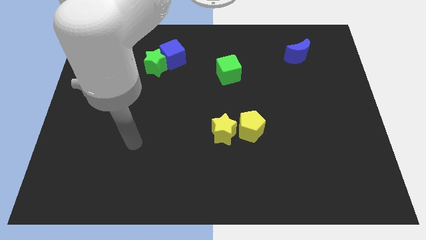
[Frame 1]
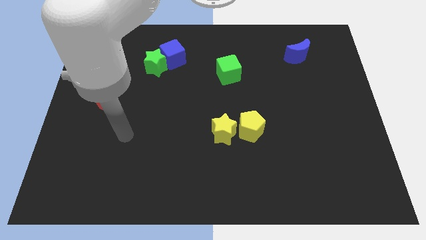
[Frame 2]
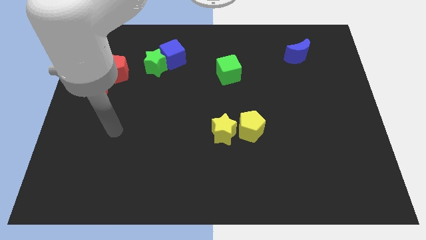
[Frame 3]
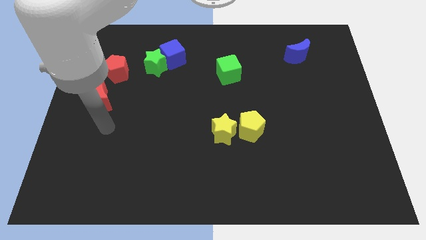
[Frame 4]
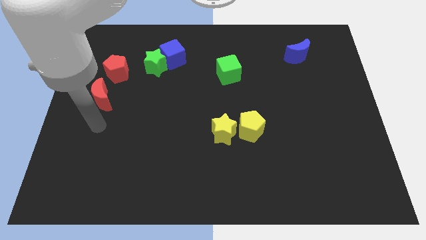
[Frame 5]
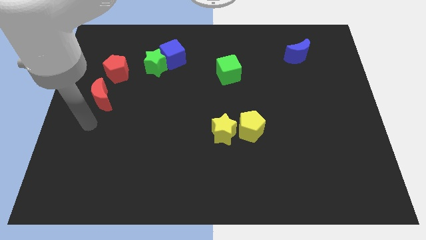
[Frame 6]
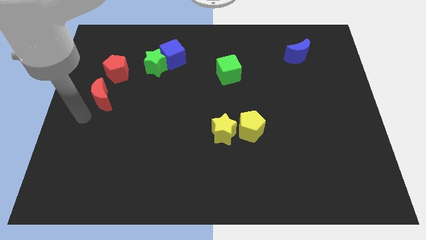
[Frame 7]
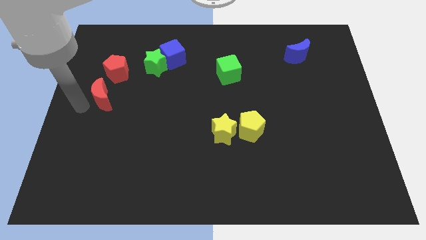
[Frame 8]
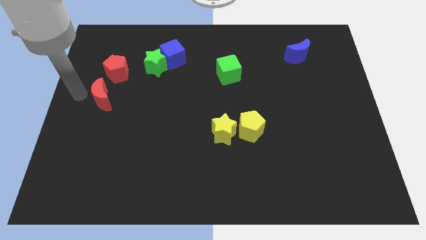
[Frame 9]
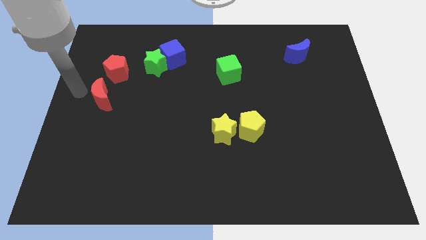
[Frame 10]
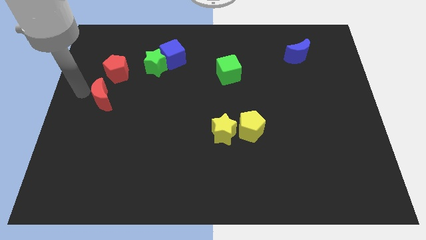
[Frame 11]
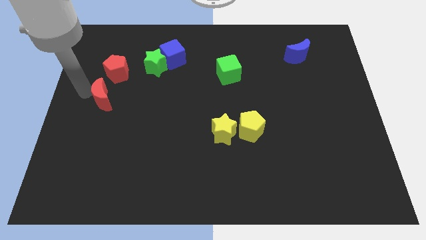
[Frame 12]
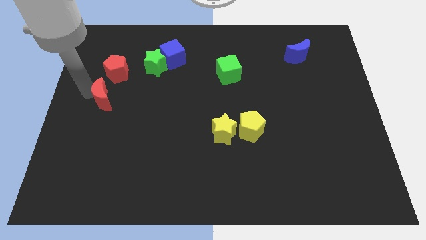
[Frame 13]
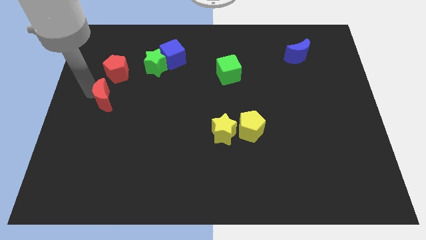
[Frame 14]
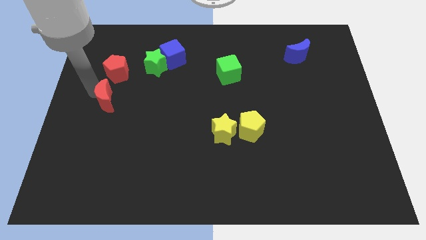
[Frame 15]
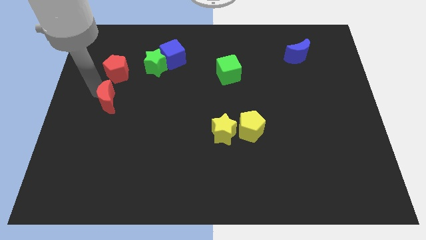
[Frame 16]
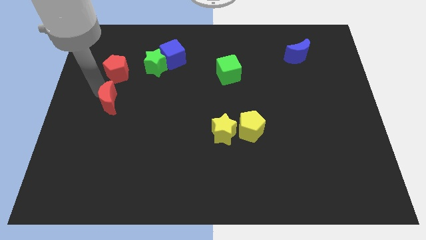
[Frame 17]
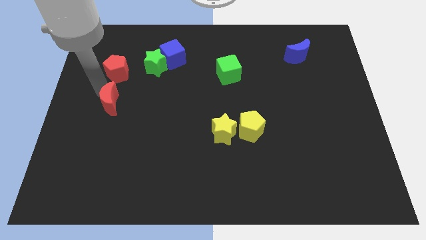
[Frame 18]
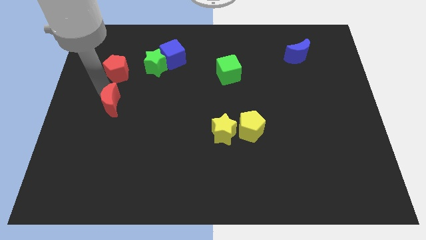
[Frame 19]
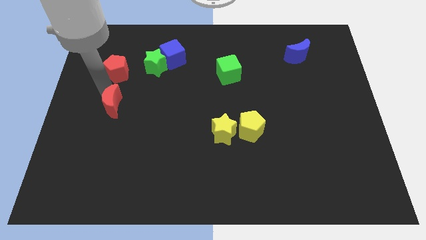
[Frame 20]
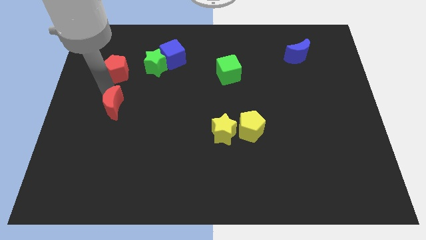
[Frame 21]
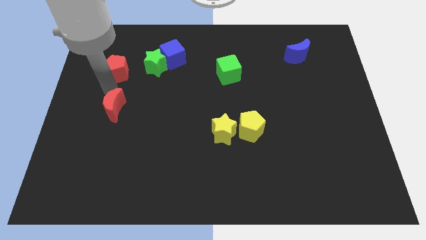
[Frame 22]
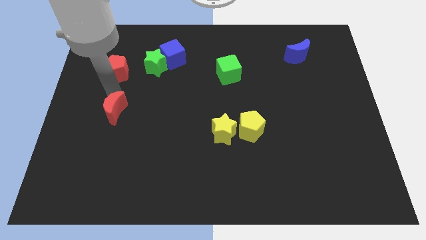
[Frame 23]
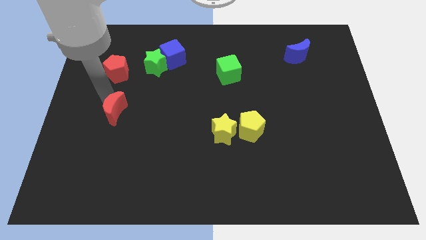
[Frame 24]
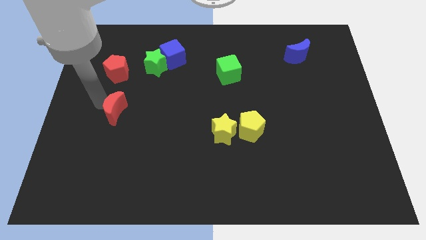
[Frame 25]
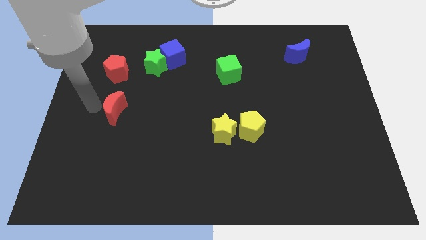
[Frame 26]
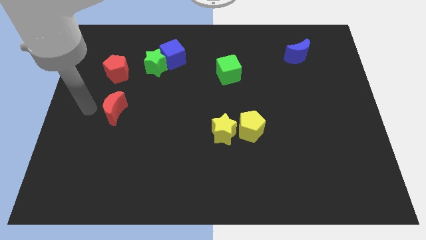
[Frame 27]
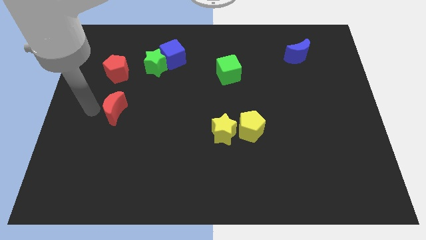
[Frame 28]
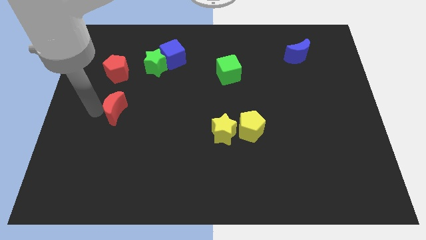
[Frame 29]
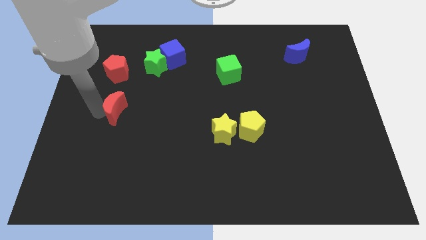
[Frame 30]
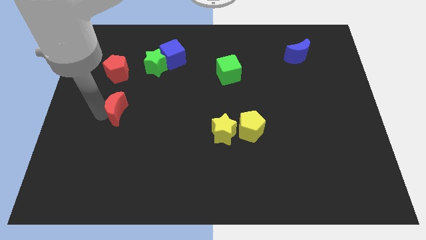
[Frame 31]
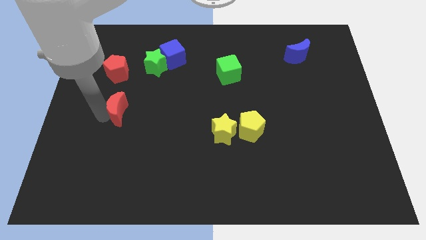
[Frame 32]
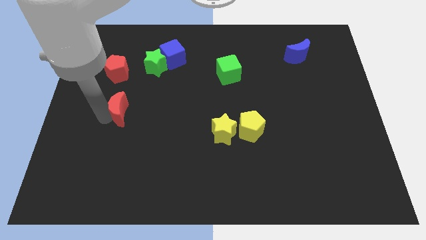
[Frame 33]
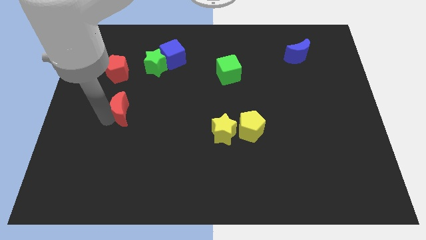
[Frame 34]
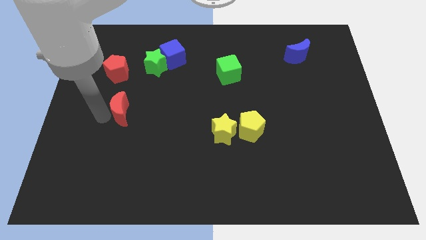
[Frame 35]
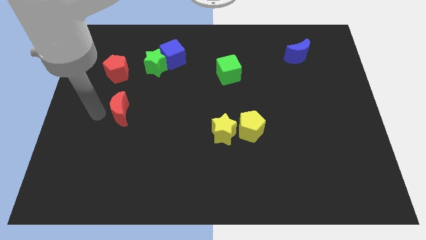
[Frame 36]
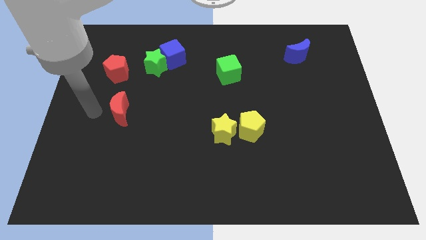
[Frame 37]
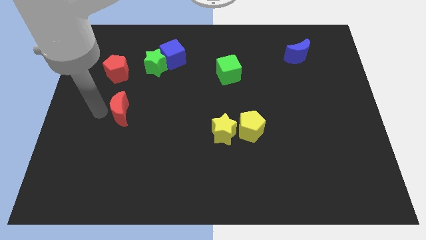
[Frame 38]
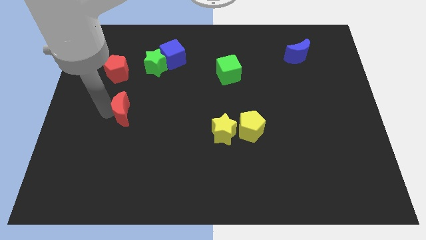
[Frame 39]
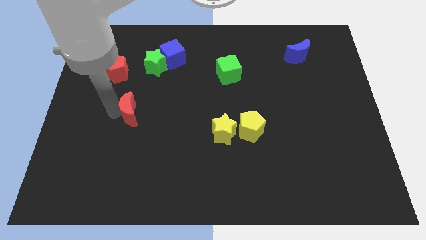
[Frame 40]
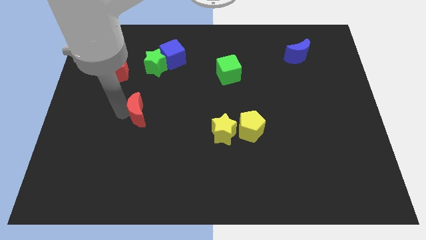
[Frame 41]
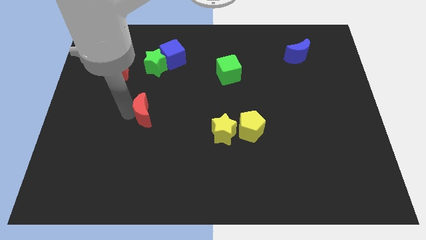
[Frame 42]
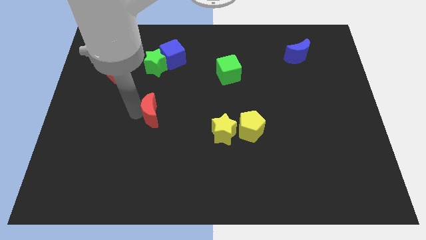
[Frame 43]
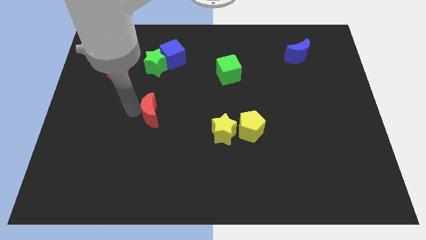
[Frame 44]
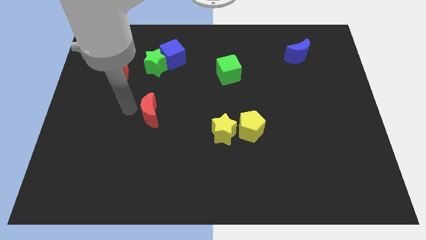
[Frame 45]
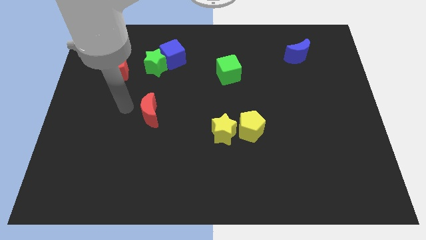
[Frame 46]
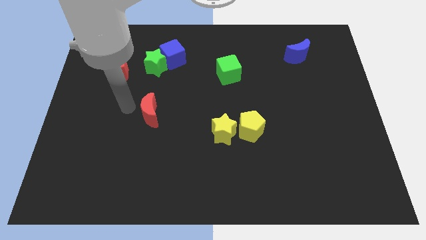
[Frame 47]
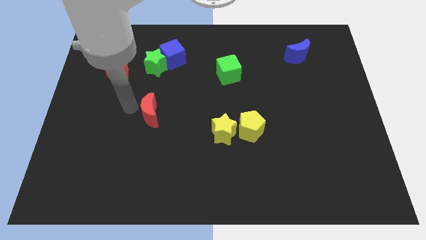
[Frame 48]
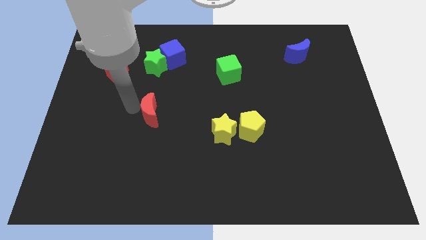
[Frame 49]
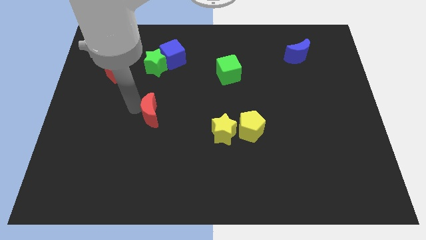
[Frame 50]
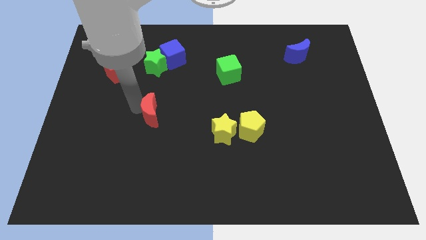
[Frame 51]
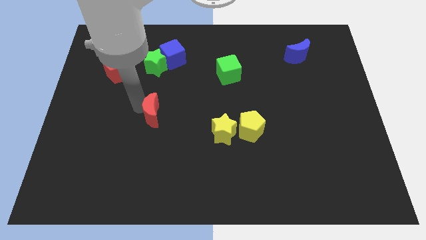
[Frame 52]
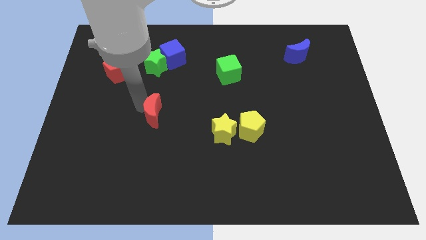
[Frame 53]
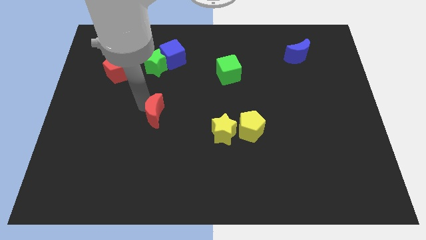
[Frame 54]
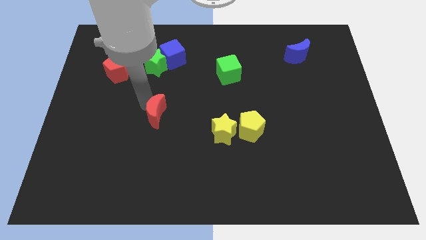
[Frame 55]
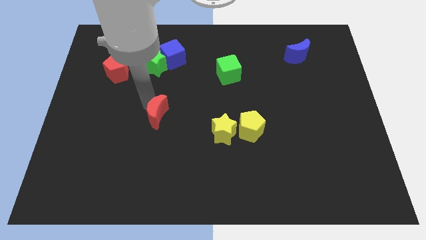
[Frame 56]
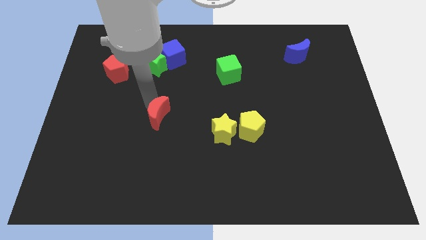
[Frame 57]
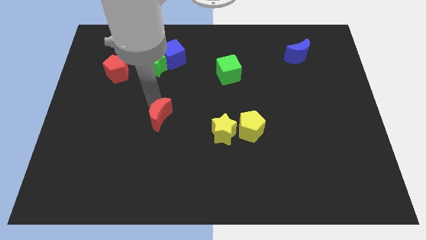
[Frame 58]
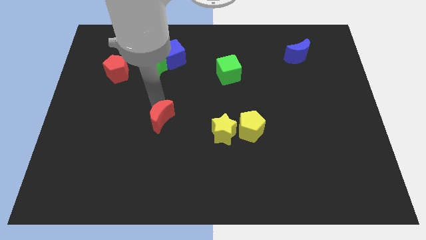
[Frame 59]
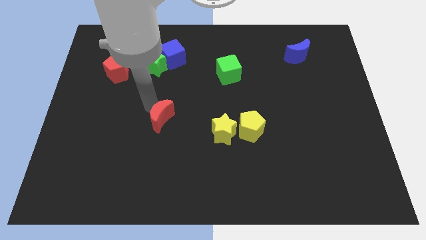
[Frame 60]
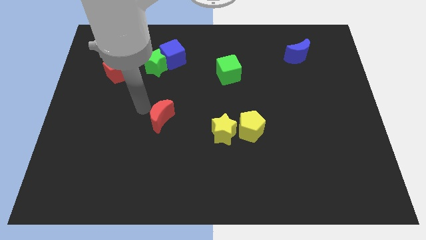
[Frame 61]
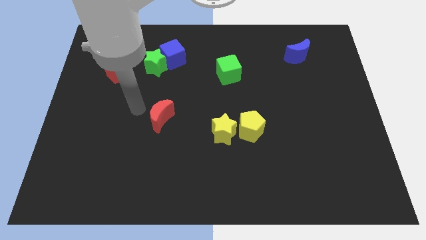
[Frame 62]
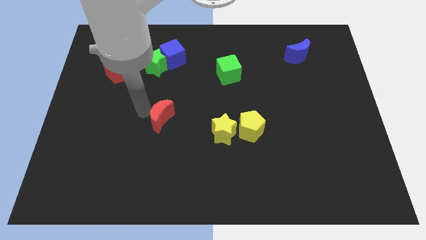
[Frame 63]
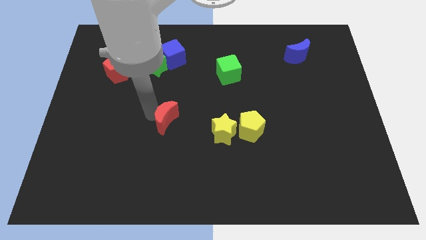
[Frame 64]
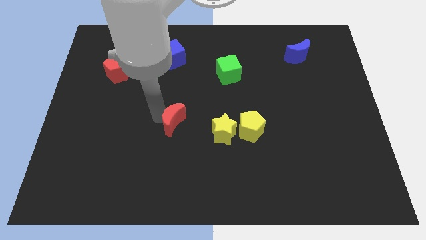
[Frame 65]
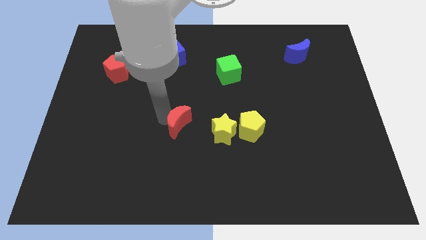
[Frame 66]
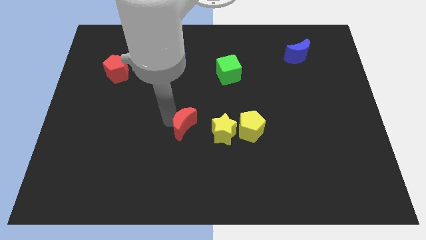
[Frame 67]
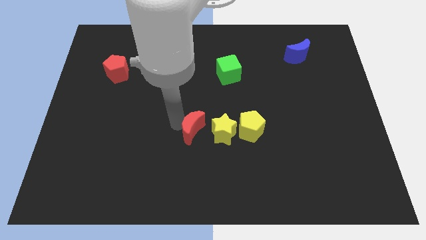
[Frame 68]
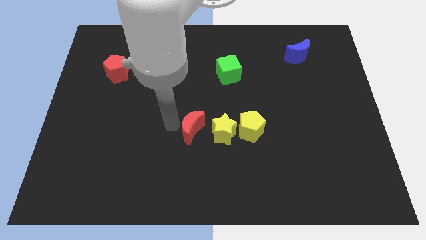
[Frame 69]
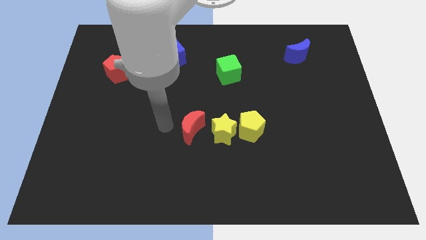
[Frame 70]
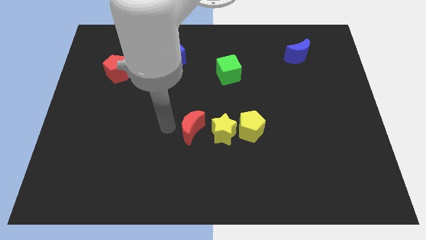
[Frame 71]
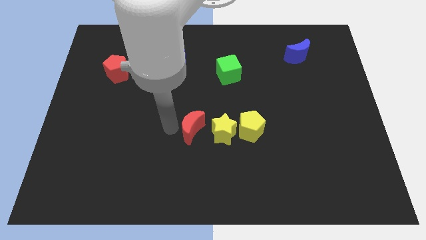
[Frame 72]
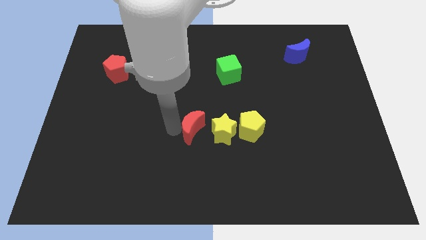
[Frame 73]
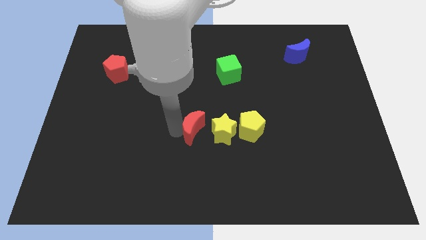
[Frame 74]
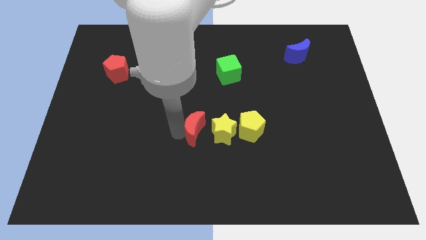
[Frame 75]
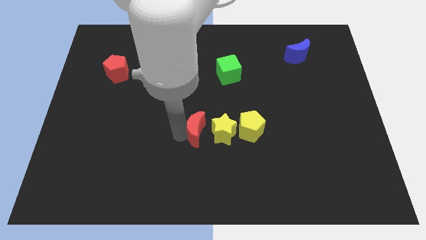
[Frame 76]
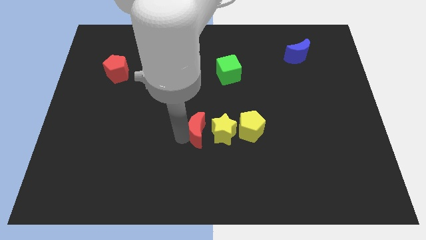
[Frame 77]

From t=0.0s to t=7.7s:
put the red moon next to the yellow star
